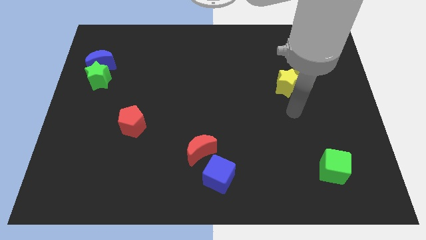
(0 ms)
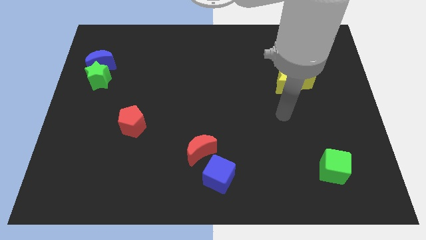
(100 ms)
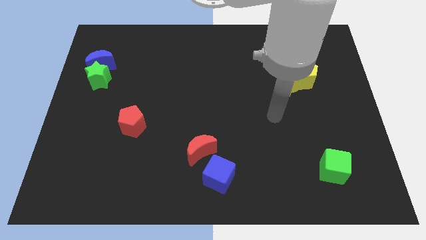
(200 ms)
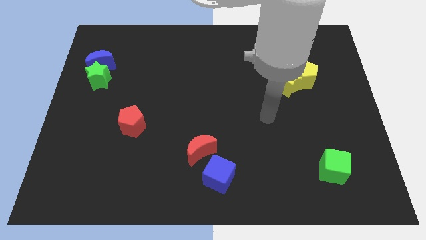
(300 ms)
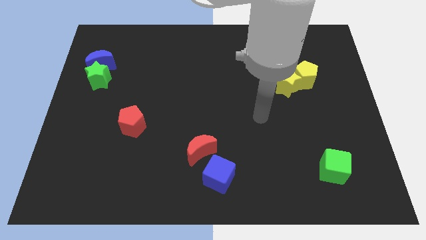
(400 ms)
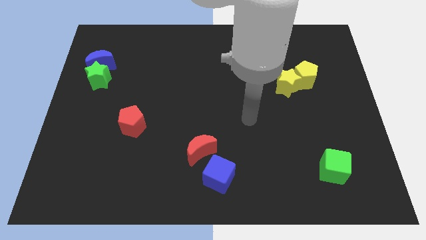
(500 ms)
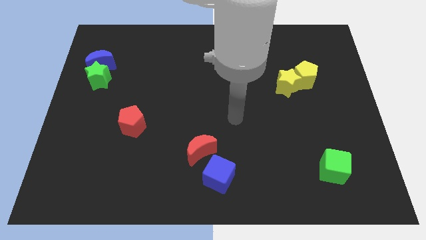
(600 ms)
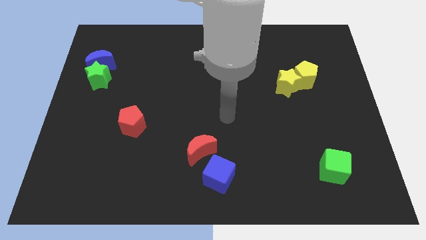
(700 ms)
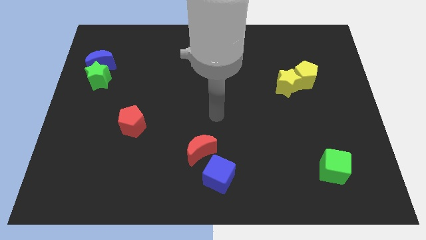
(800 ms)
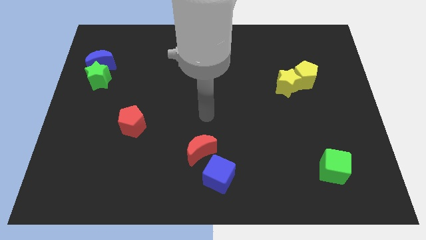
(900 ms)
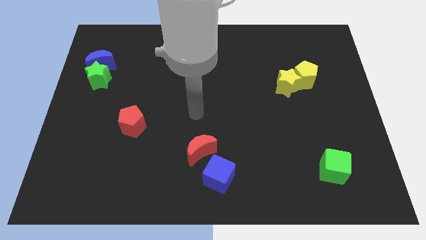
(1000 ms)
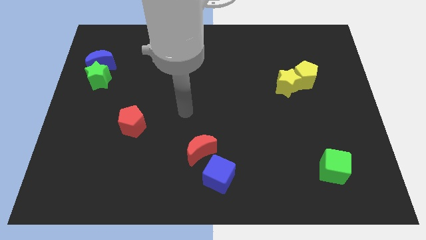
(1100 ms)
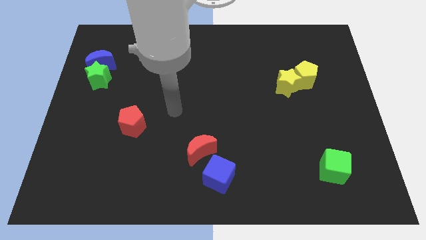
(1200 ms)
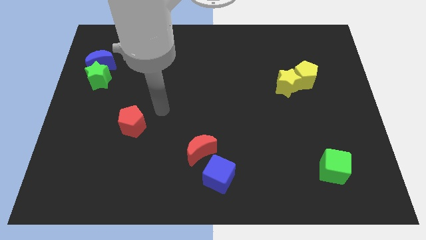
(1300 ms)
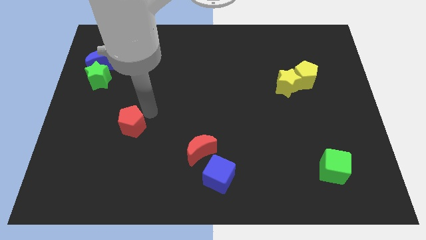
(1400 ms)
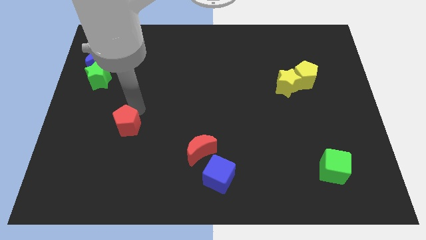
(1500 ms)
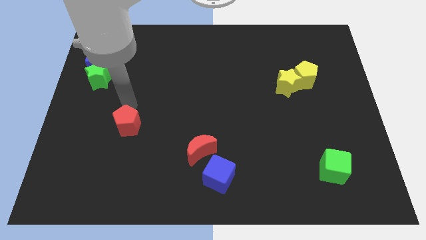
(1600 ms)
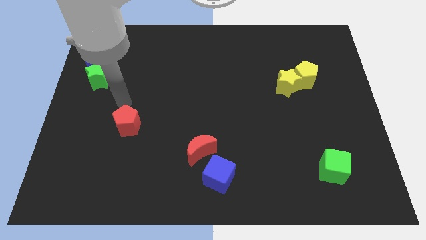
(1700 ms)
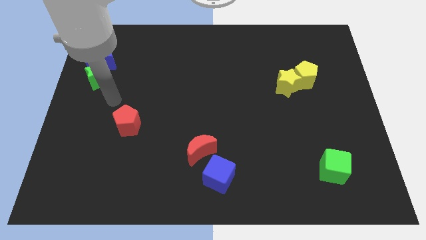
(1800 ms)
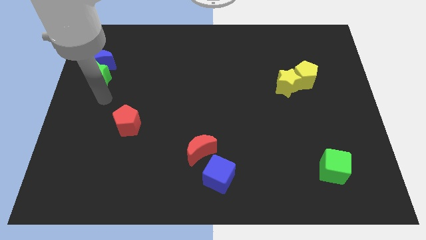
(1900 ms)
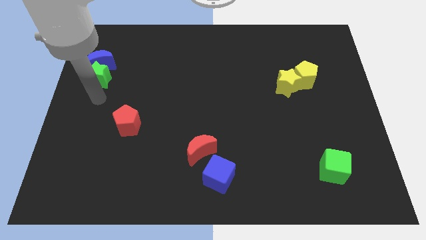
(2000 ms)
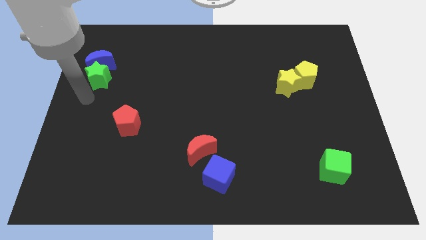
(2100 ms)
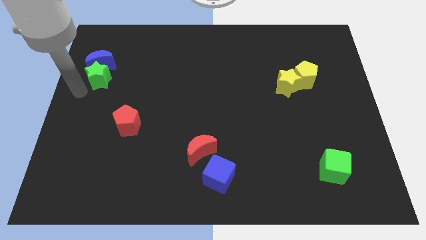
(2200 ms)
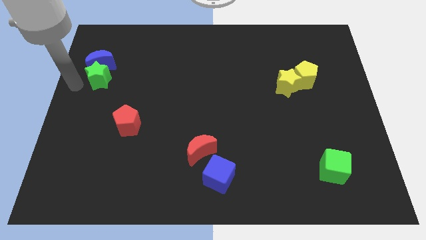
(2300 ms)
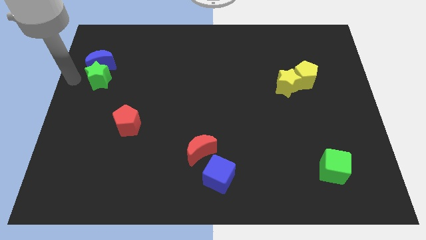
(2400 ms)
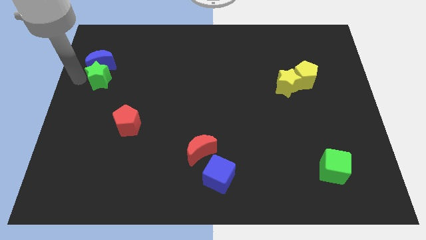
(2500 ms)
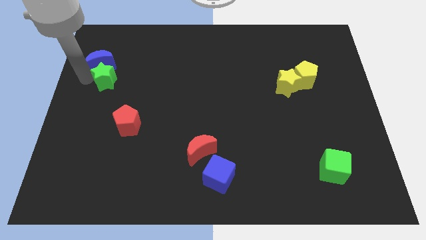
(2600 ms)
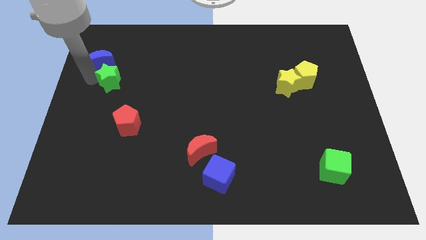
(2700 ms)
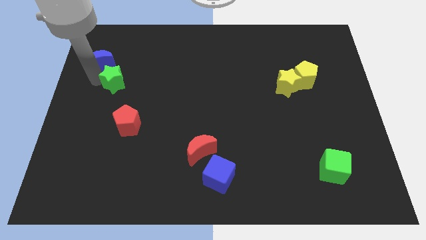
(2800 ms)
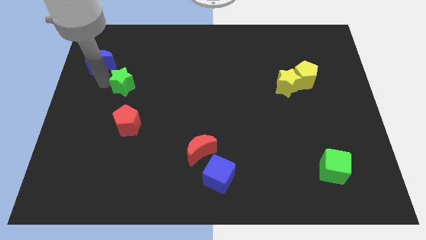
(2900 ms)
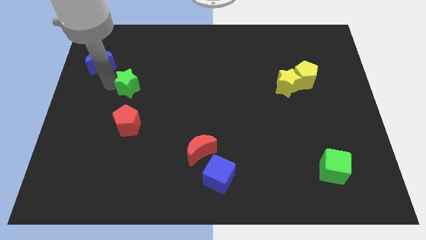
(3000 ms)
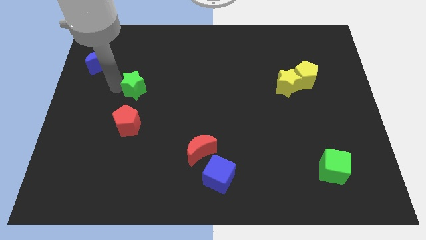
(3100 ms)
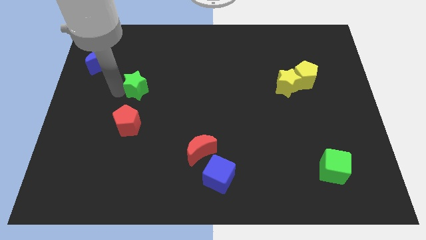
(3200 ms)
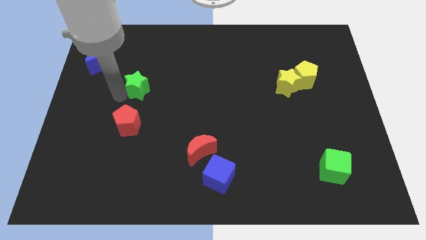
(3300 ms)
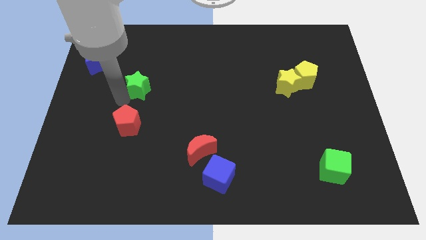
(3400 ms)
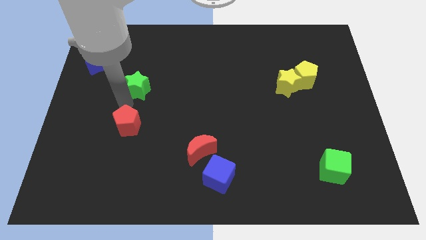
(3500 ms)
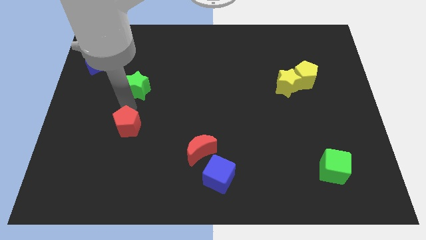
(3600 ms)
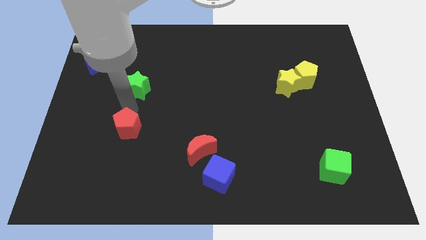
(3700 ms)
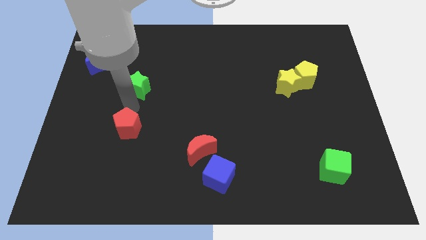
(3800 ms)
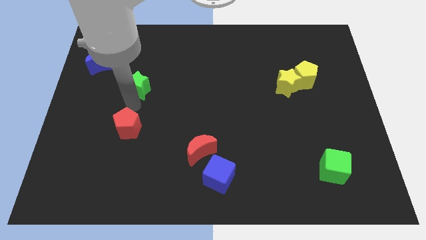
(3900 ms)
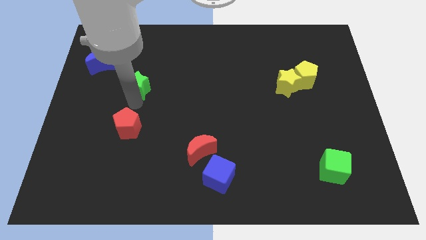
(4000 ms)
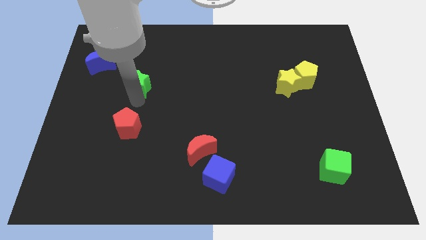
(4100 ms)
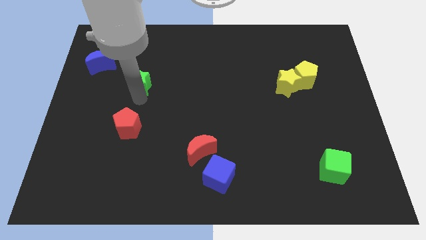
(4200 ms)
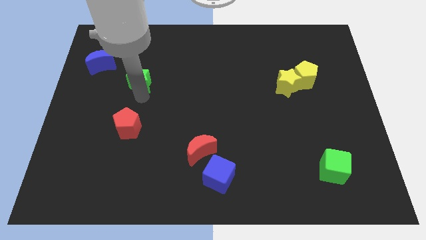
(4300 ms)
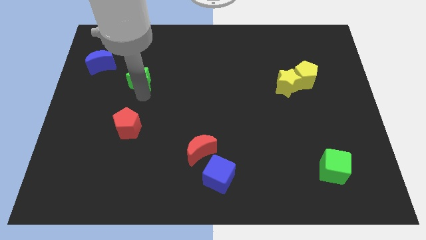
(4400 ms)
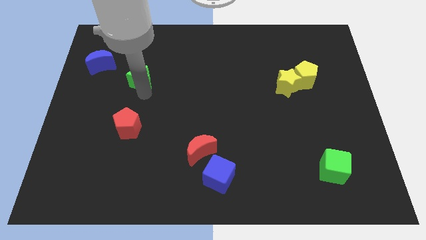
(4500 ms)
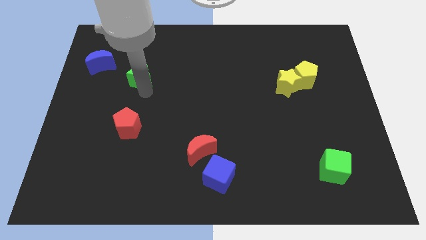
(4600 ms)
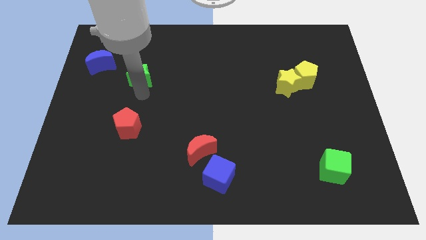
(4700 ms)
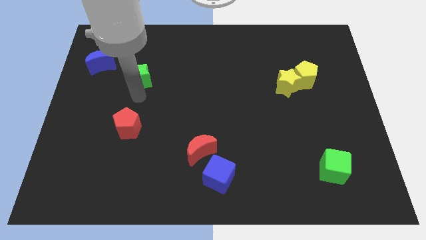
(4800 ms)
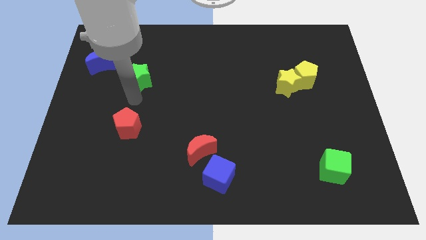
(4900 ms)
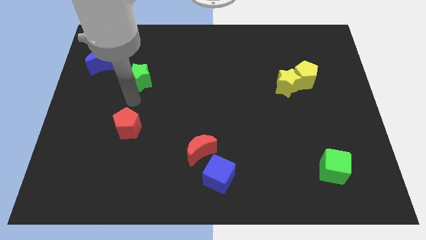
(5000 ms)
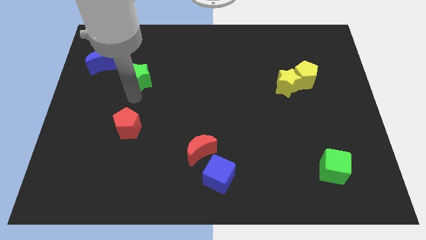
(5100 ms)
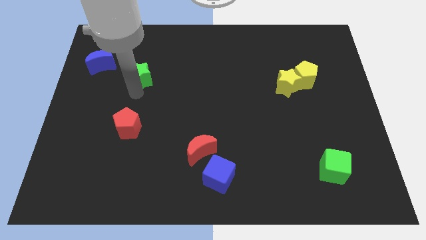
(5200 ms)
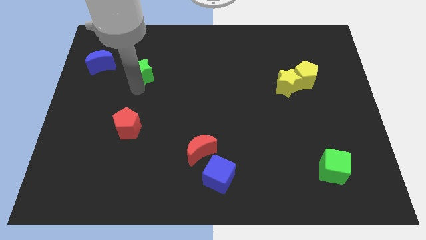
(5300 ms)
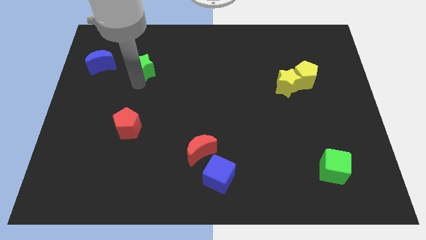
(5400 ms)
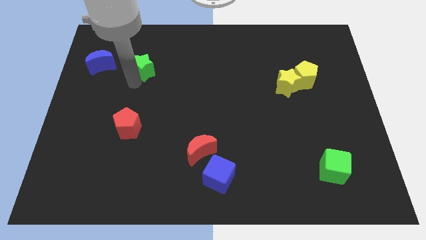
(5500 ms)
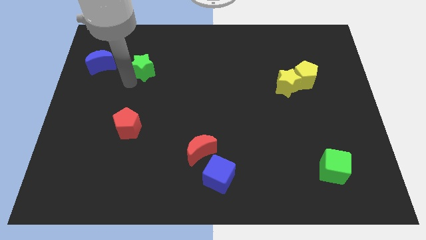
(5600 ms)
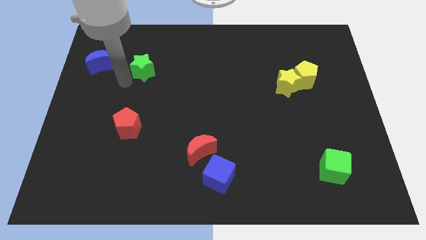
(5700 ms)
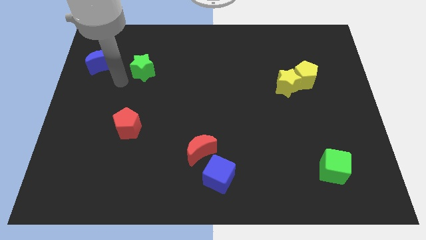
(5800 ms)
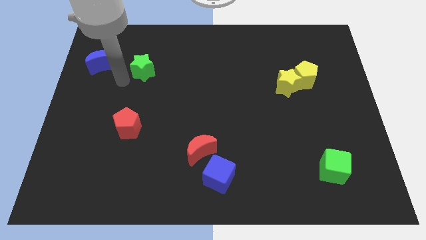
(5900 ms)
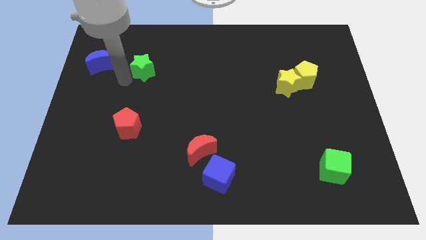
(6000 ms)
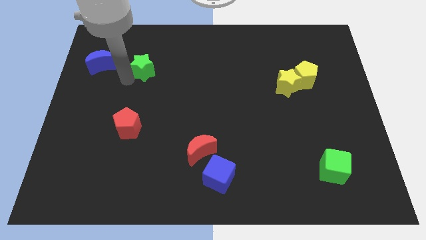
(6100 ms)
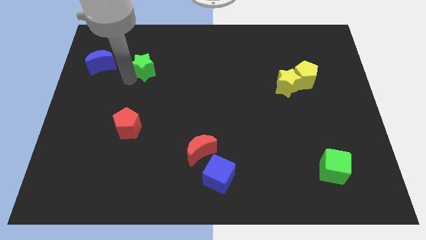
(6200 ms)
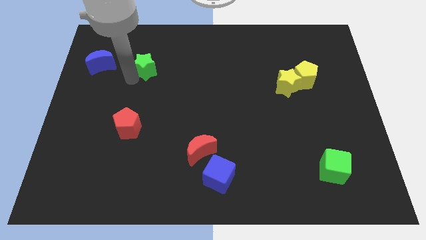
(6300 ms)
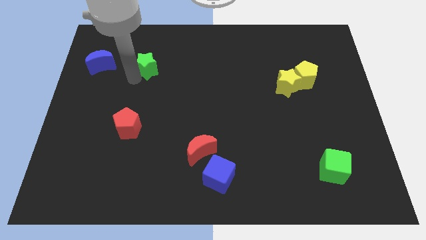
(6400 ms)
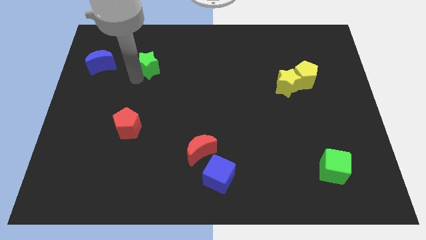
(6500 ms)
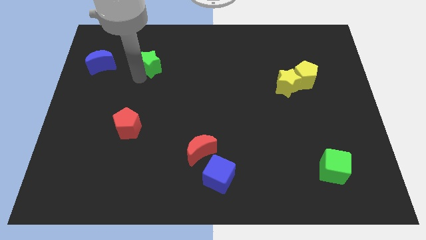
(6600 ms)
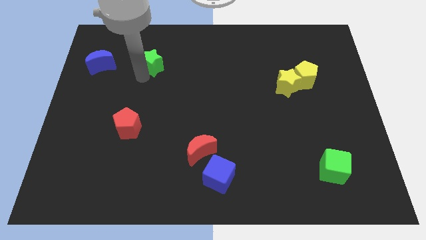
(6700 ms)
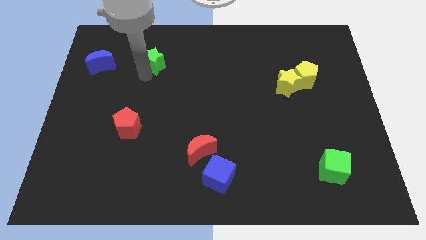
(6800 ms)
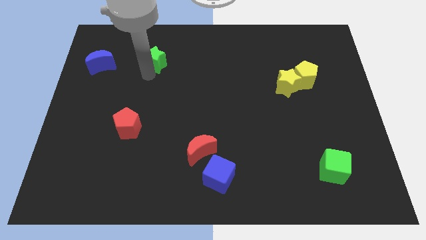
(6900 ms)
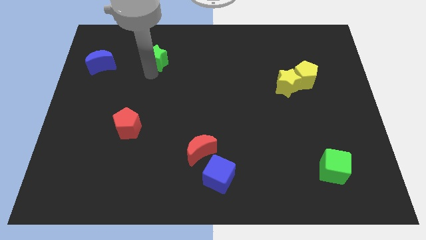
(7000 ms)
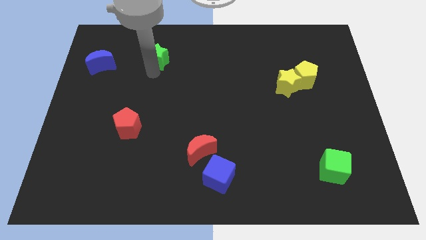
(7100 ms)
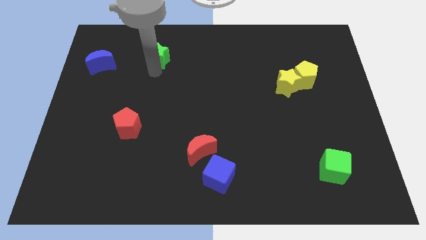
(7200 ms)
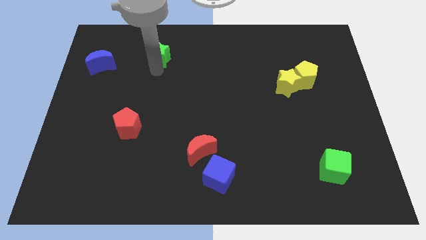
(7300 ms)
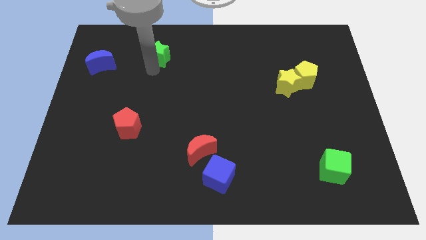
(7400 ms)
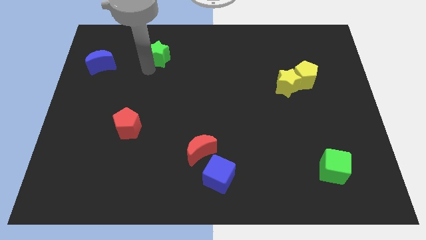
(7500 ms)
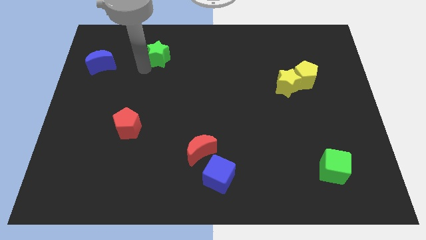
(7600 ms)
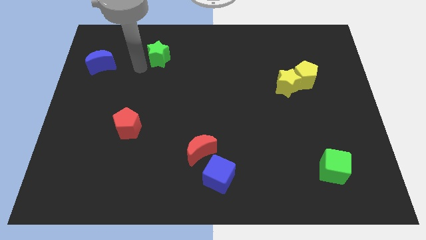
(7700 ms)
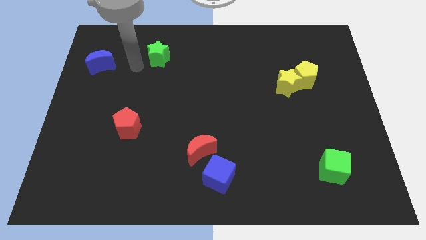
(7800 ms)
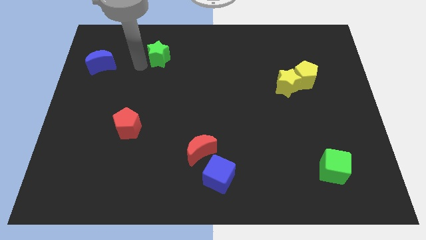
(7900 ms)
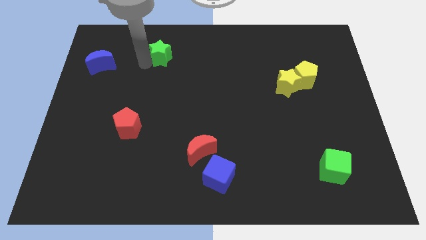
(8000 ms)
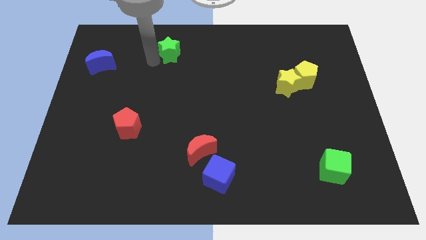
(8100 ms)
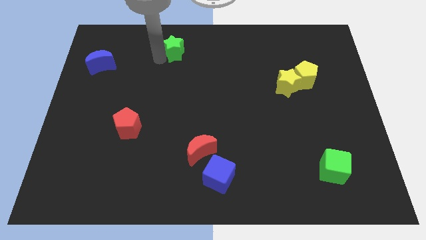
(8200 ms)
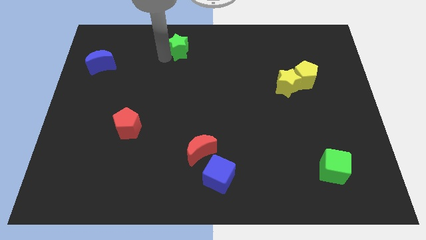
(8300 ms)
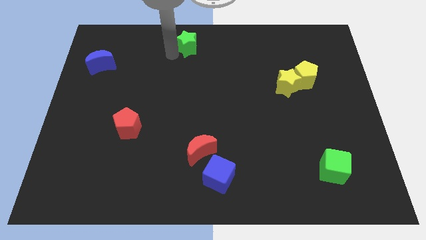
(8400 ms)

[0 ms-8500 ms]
push the green star to the towards your base
